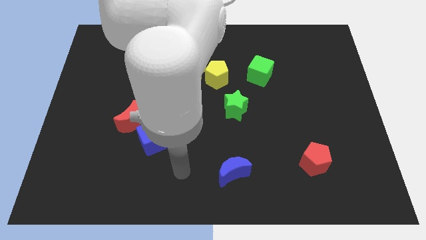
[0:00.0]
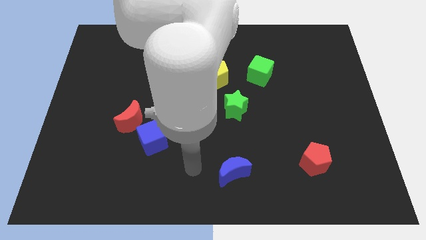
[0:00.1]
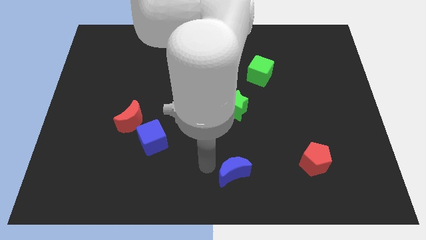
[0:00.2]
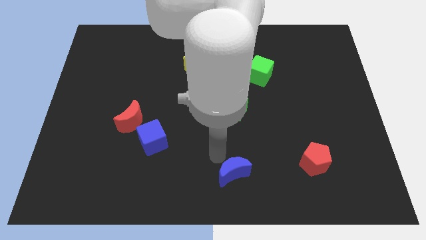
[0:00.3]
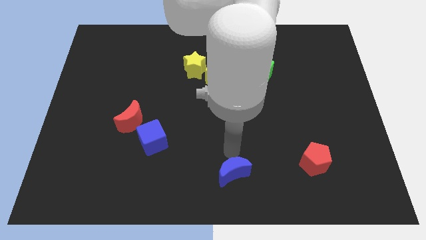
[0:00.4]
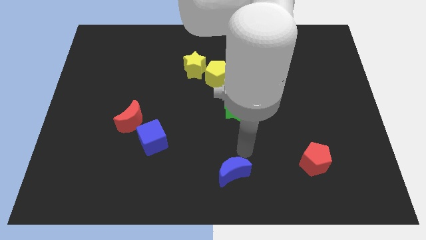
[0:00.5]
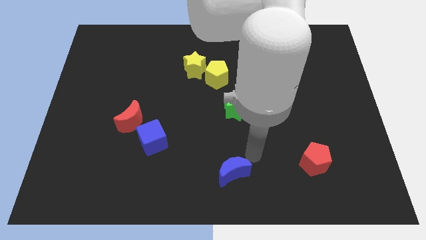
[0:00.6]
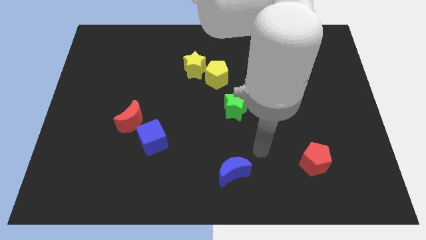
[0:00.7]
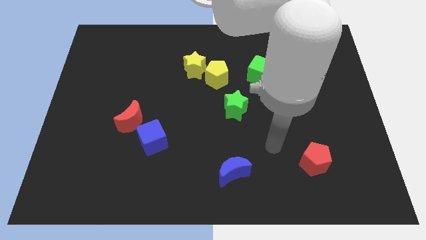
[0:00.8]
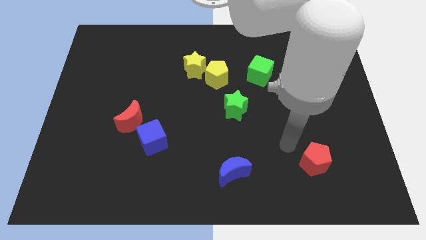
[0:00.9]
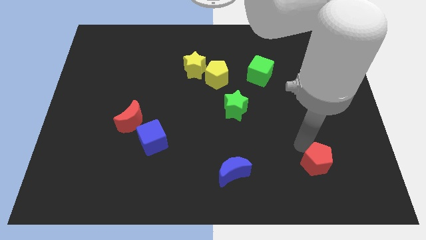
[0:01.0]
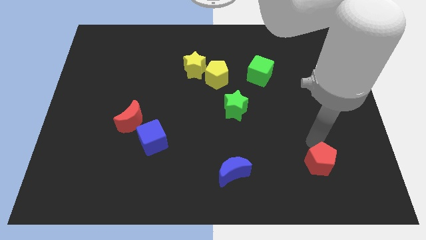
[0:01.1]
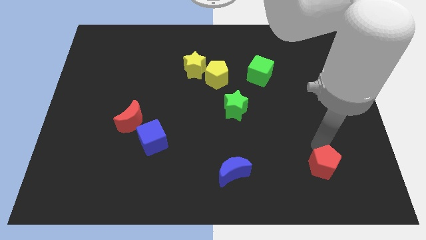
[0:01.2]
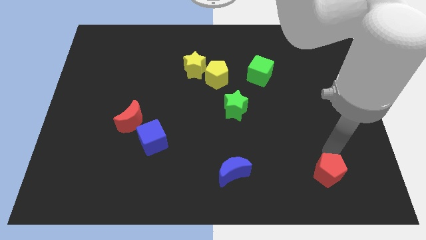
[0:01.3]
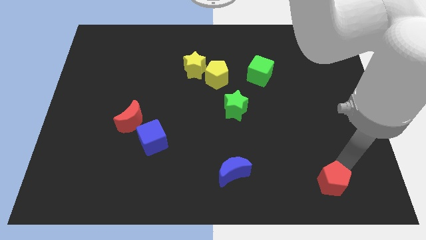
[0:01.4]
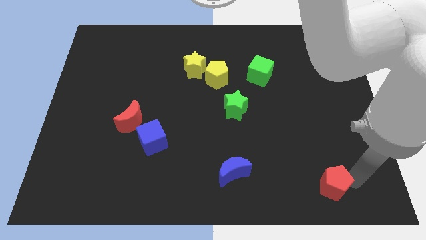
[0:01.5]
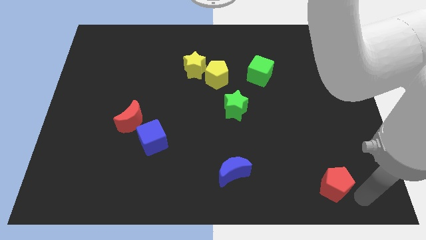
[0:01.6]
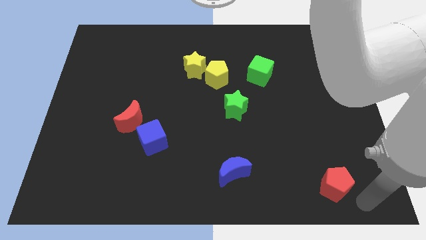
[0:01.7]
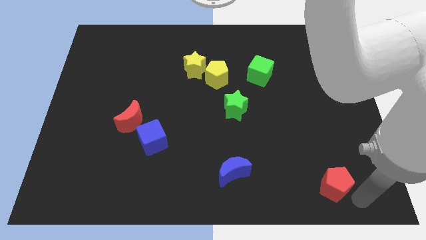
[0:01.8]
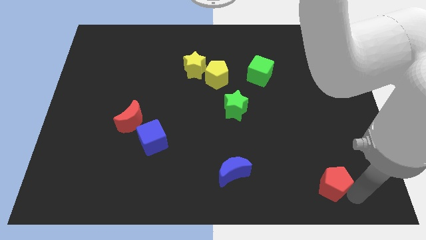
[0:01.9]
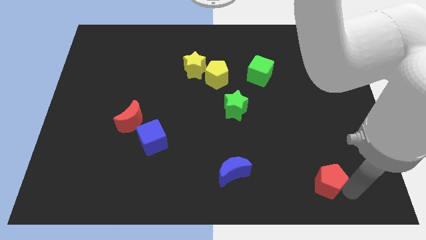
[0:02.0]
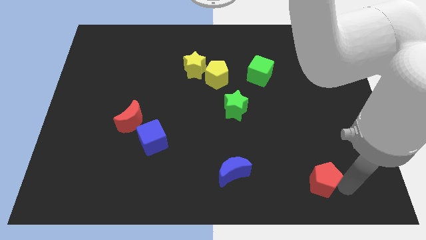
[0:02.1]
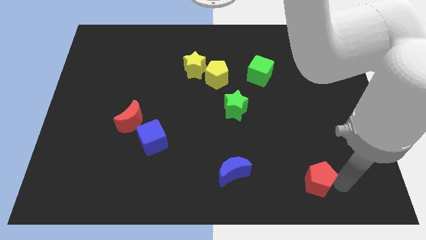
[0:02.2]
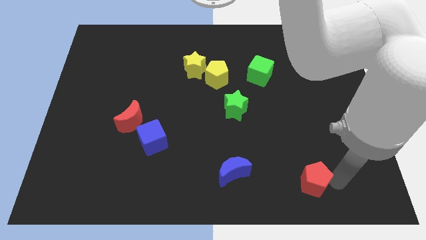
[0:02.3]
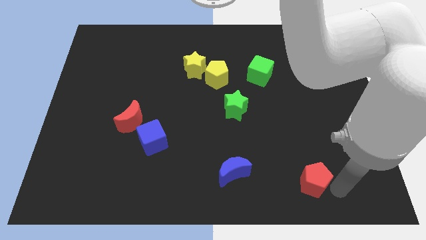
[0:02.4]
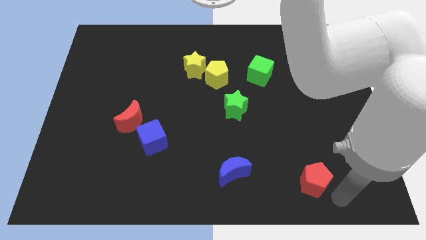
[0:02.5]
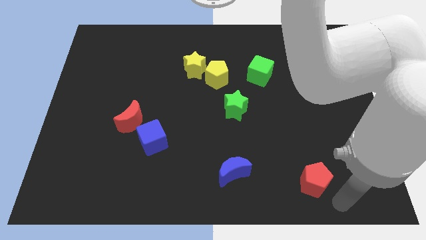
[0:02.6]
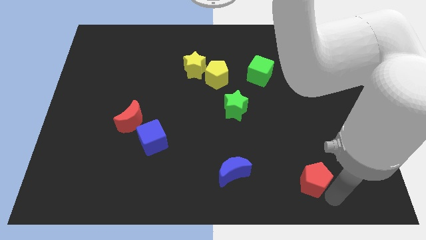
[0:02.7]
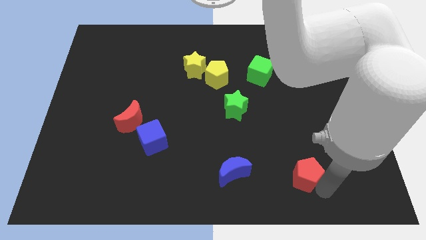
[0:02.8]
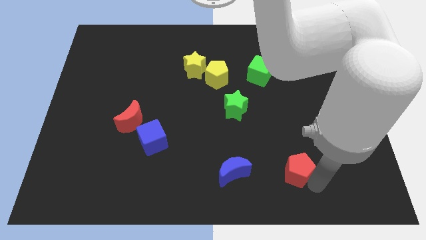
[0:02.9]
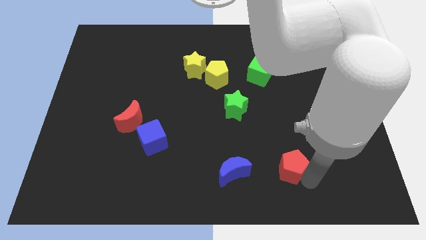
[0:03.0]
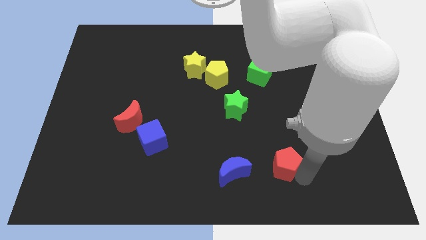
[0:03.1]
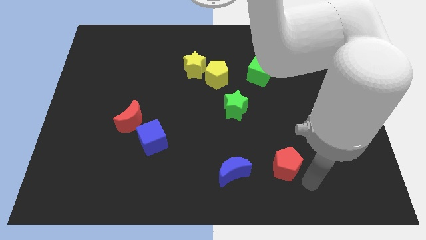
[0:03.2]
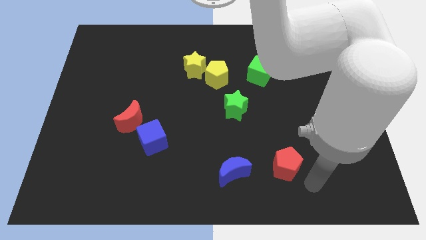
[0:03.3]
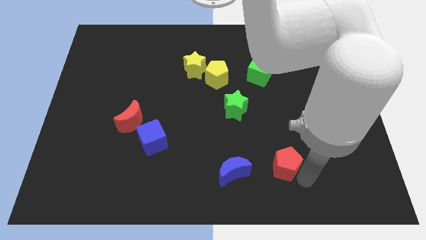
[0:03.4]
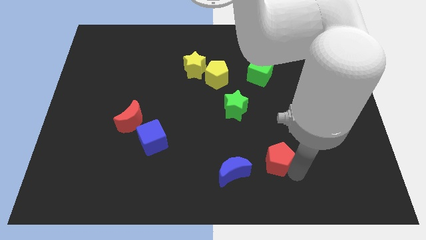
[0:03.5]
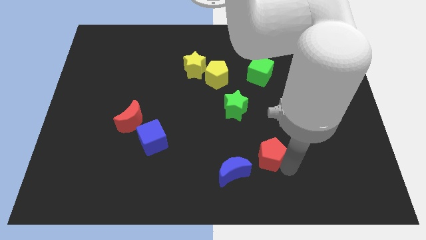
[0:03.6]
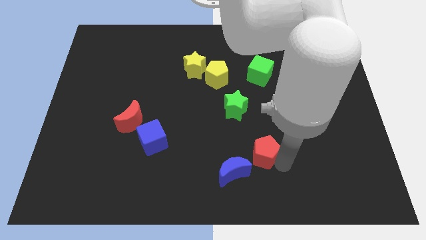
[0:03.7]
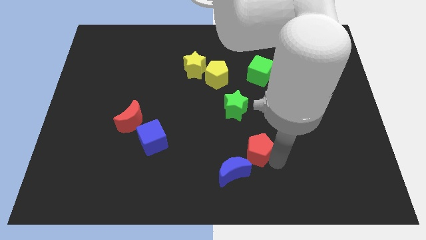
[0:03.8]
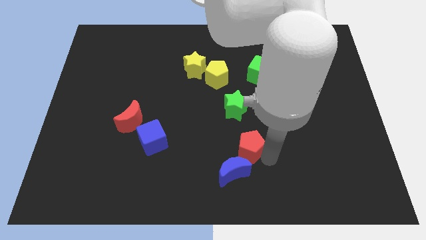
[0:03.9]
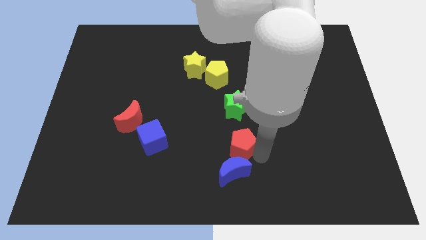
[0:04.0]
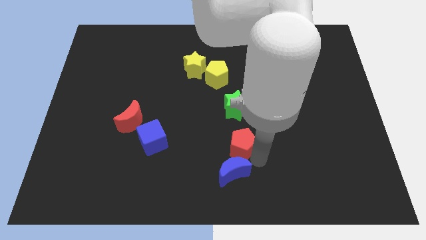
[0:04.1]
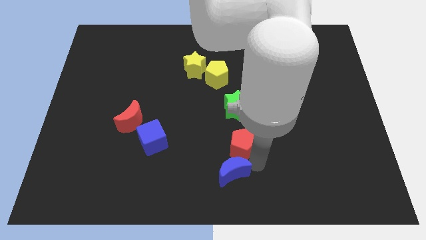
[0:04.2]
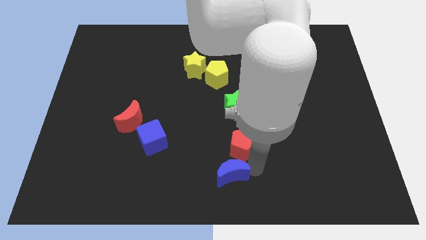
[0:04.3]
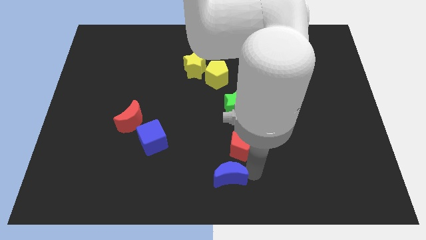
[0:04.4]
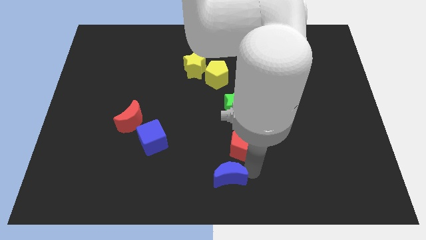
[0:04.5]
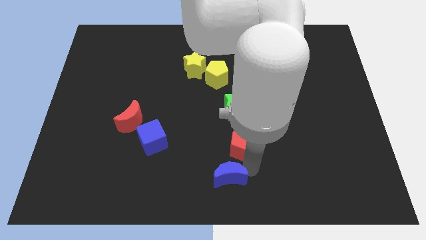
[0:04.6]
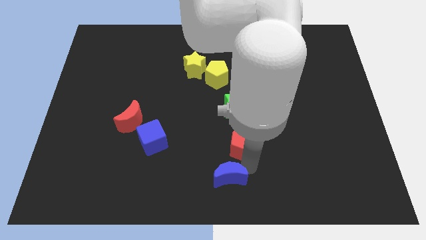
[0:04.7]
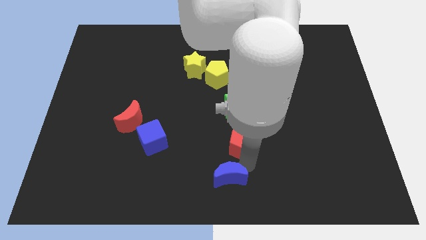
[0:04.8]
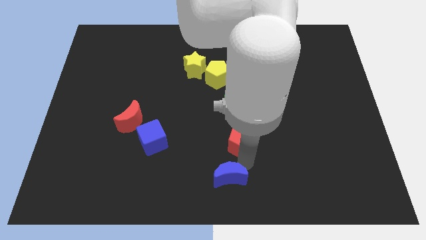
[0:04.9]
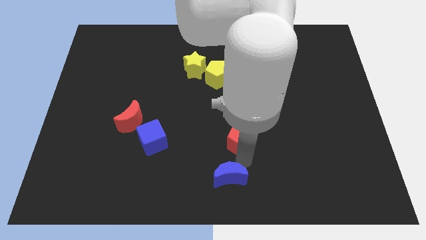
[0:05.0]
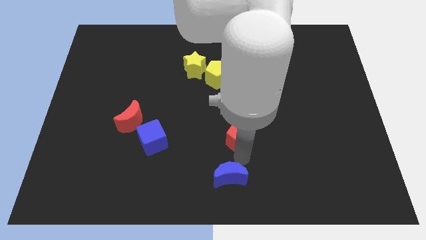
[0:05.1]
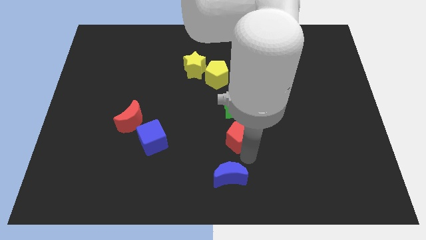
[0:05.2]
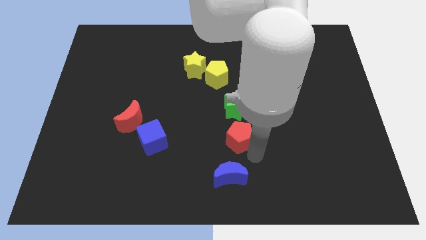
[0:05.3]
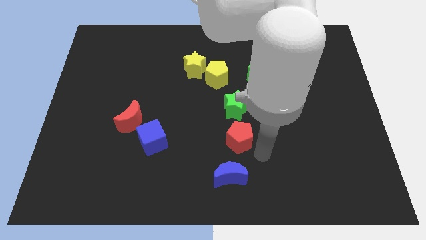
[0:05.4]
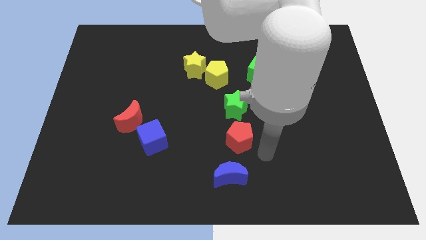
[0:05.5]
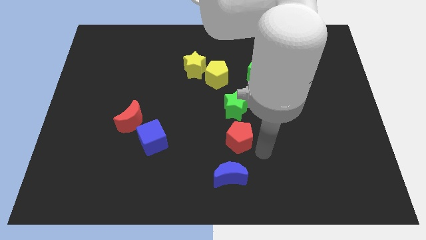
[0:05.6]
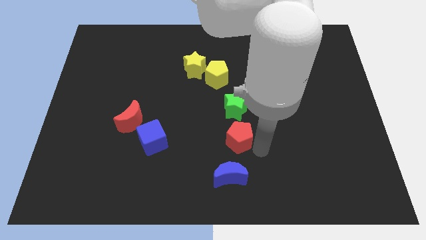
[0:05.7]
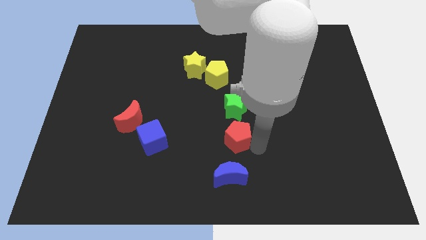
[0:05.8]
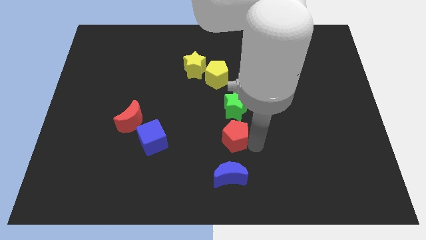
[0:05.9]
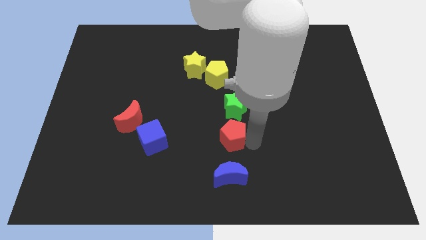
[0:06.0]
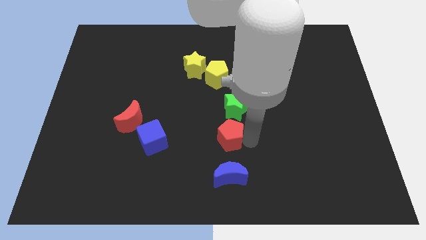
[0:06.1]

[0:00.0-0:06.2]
slide the red pentagon to the bottom left side of the green star
